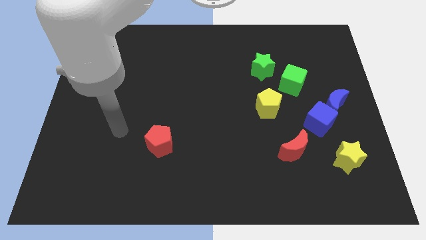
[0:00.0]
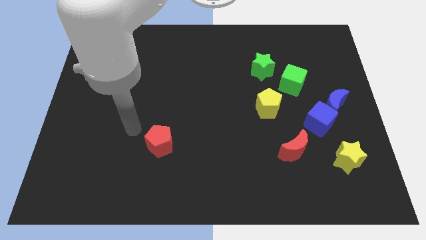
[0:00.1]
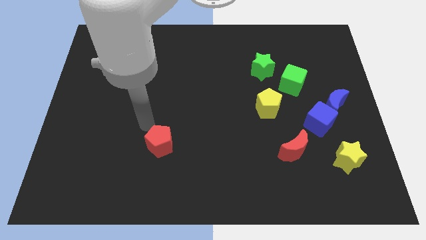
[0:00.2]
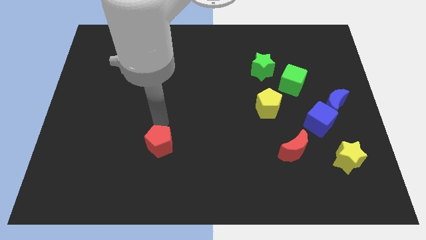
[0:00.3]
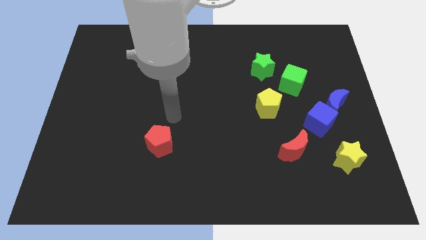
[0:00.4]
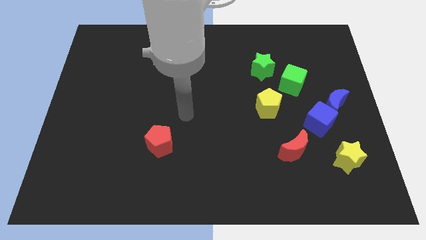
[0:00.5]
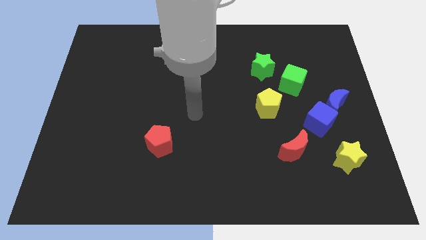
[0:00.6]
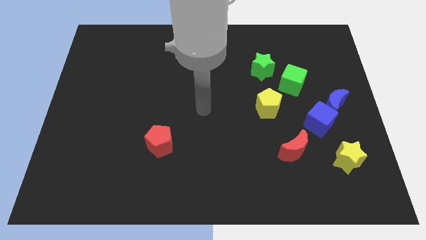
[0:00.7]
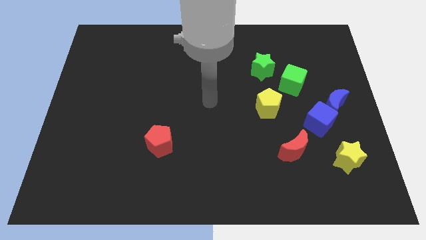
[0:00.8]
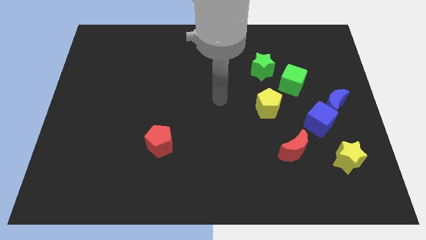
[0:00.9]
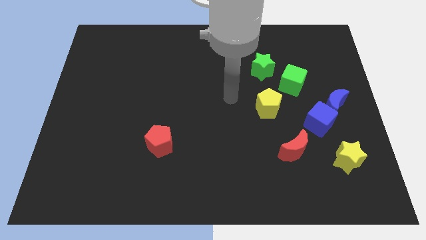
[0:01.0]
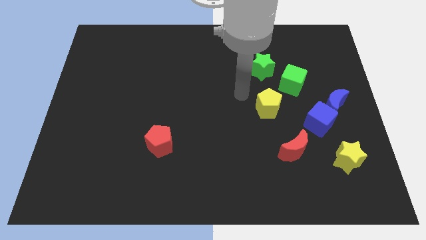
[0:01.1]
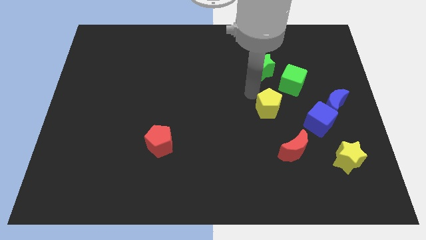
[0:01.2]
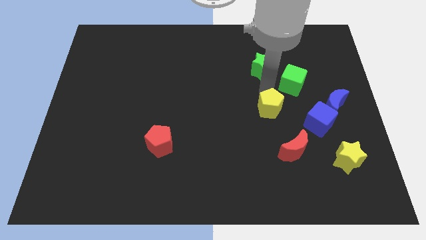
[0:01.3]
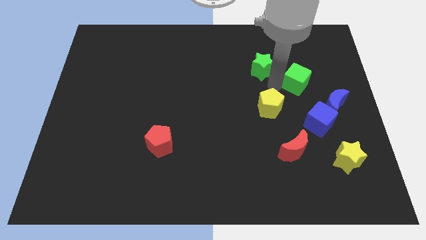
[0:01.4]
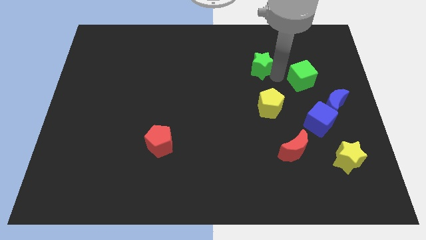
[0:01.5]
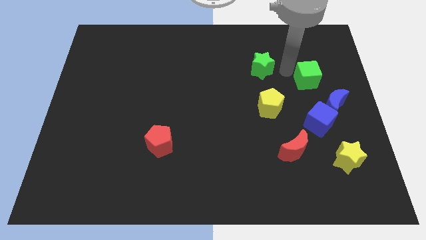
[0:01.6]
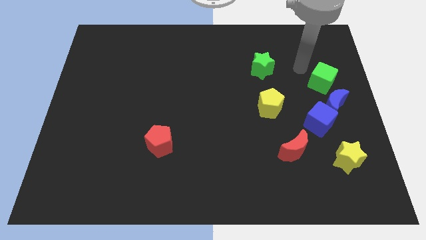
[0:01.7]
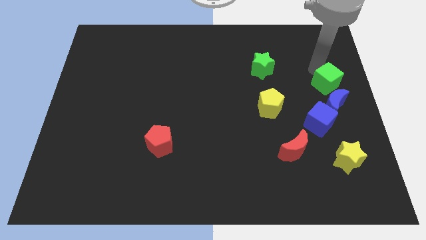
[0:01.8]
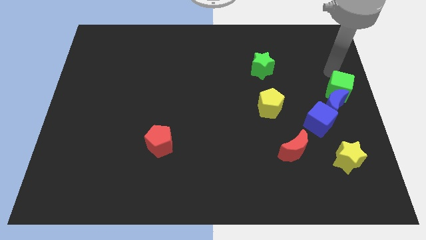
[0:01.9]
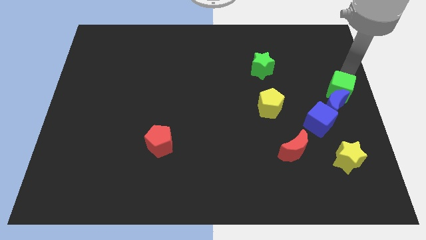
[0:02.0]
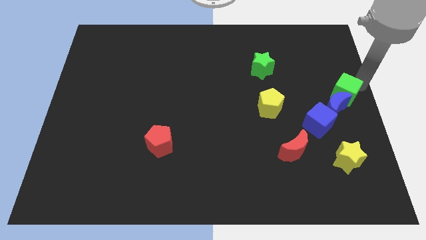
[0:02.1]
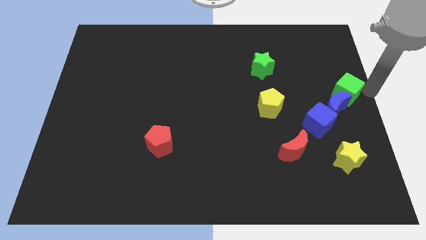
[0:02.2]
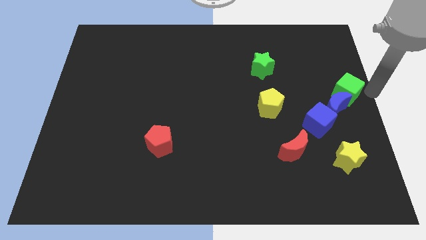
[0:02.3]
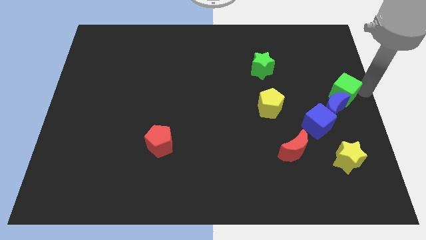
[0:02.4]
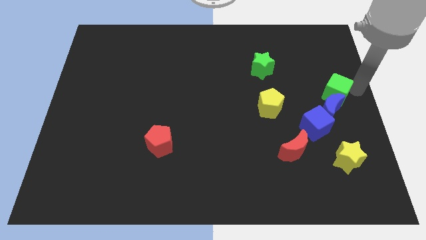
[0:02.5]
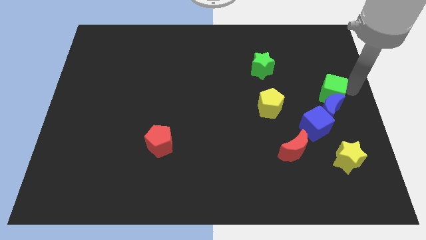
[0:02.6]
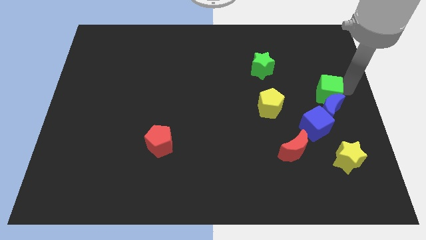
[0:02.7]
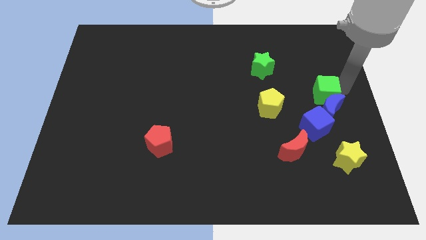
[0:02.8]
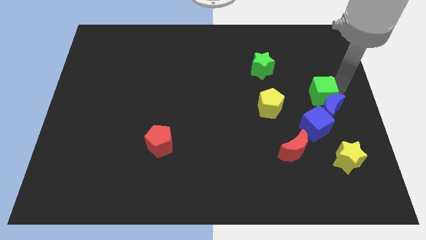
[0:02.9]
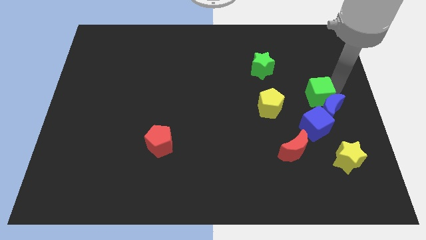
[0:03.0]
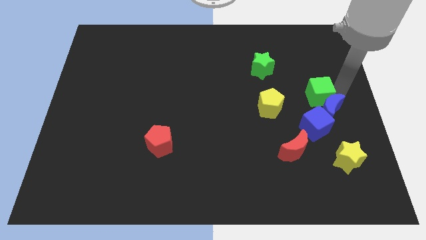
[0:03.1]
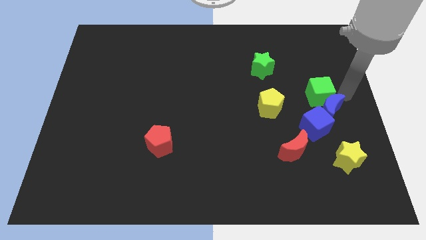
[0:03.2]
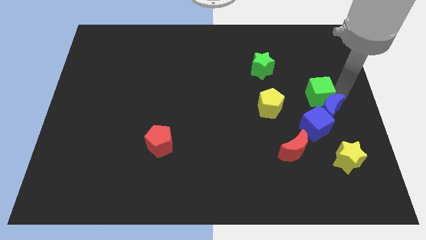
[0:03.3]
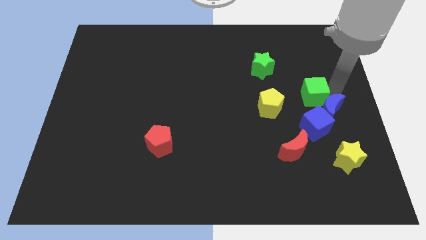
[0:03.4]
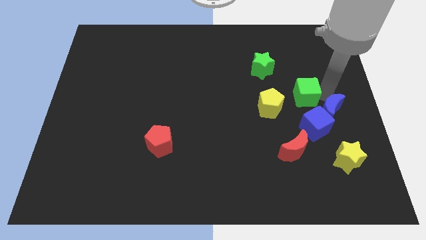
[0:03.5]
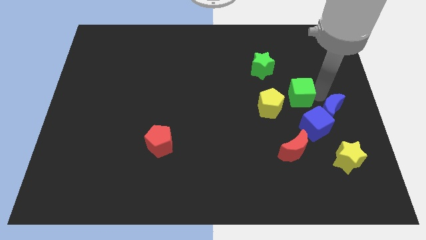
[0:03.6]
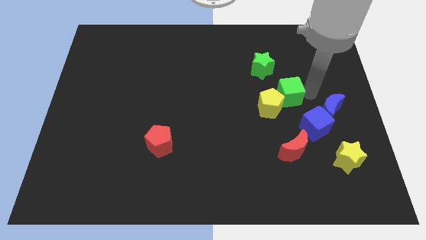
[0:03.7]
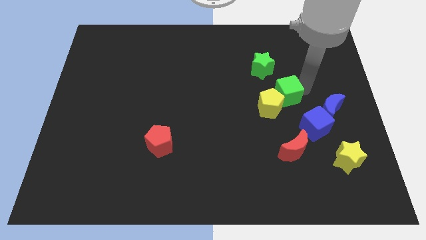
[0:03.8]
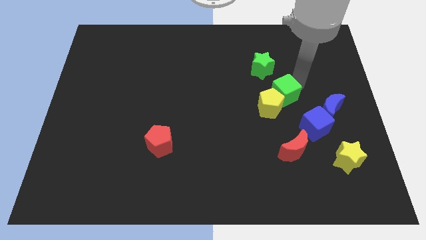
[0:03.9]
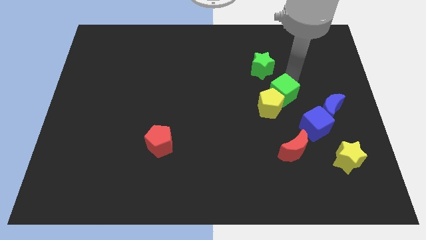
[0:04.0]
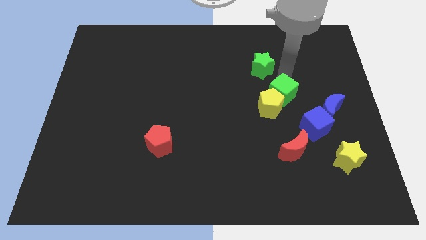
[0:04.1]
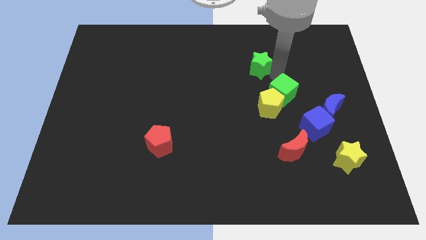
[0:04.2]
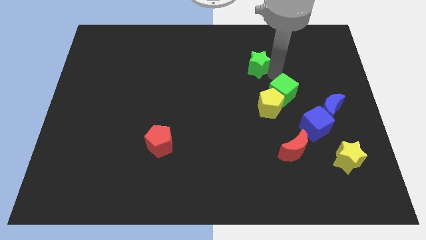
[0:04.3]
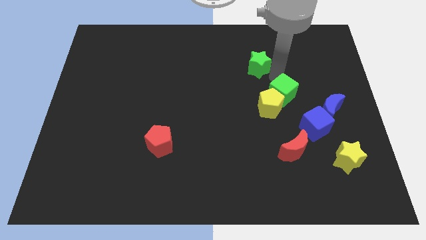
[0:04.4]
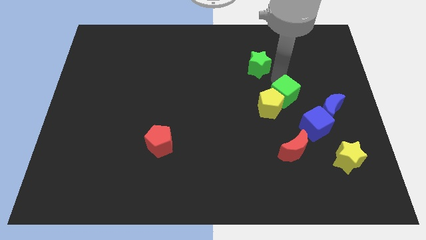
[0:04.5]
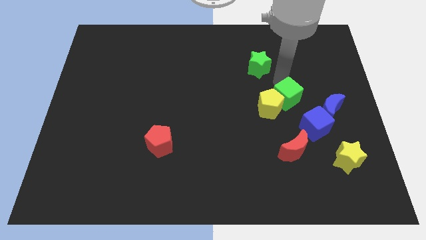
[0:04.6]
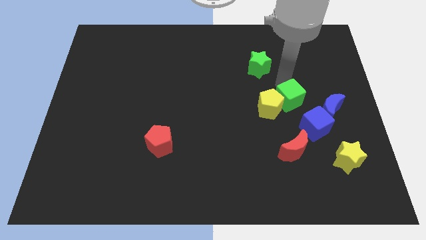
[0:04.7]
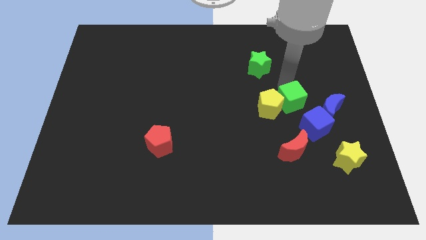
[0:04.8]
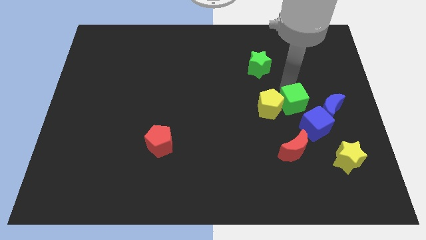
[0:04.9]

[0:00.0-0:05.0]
push the green cube to the bottom right side of the yellow pentagon

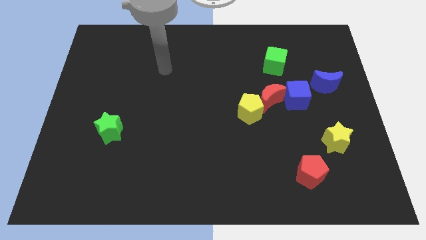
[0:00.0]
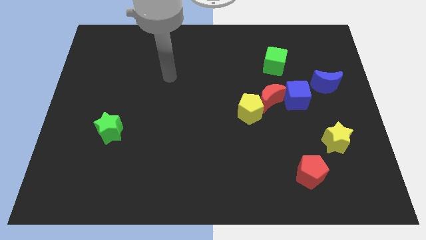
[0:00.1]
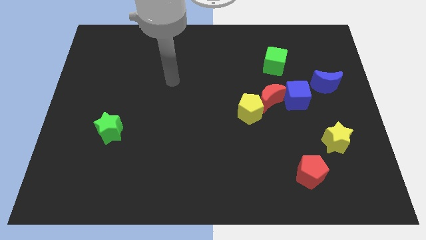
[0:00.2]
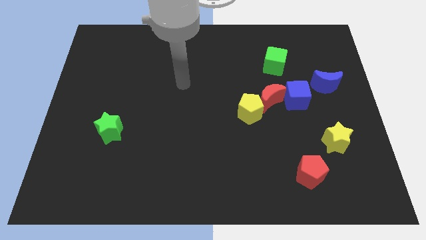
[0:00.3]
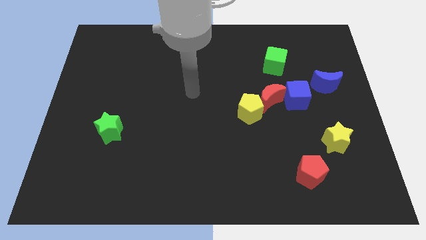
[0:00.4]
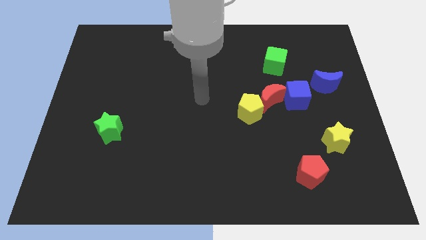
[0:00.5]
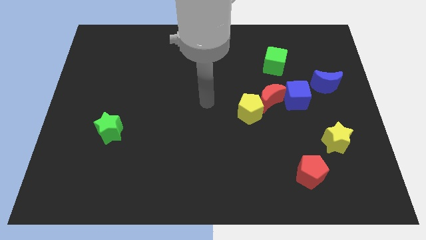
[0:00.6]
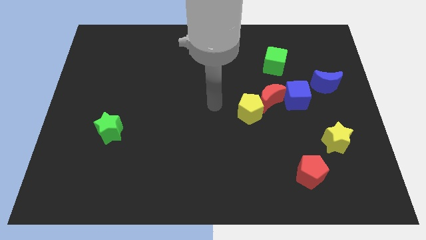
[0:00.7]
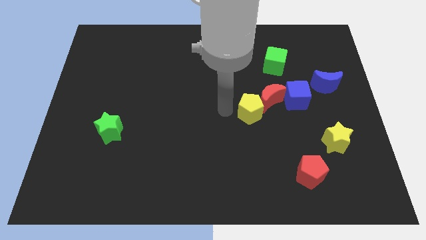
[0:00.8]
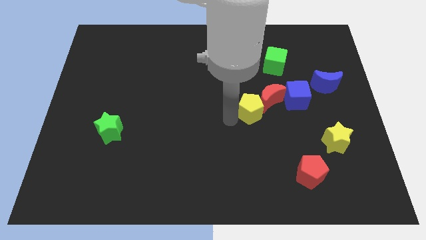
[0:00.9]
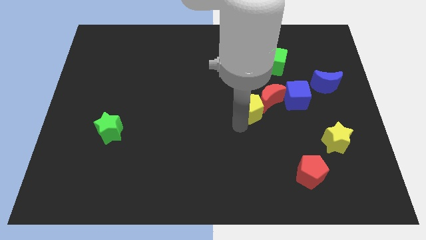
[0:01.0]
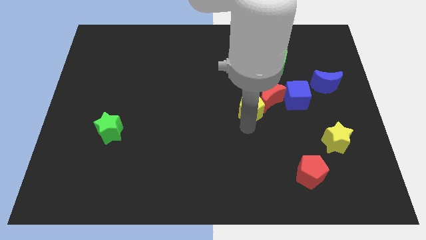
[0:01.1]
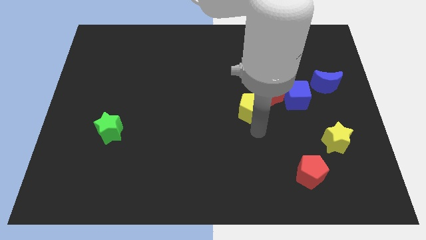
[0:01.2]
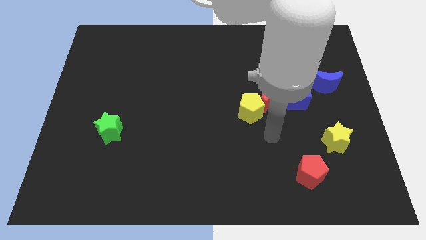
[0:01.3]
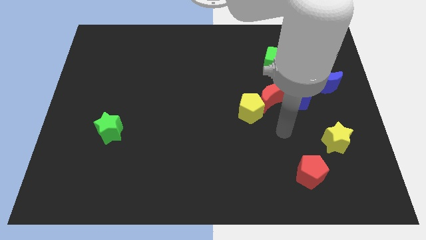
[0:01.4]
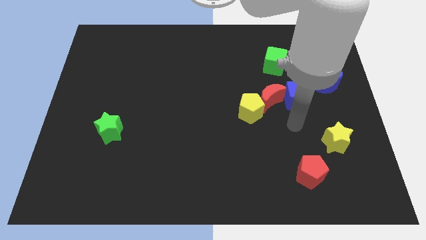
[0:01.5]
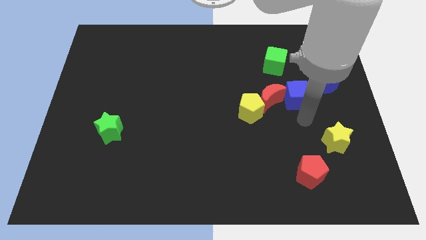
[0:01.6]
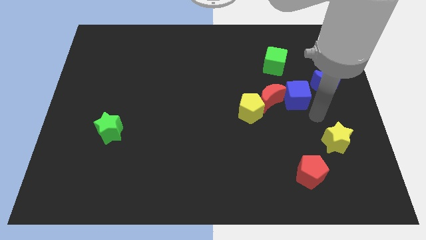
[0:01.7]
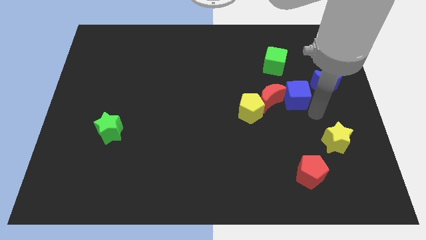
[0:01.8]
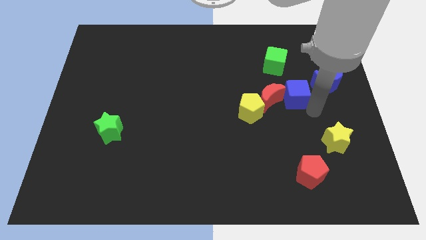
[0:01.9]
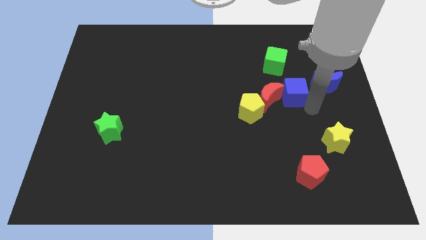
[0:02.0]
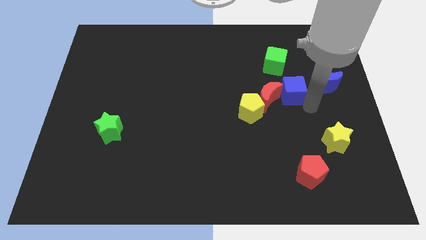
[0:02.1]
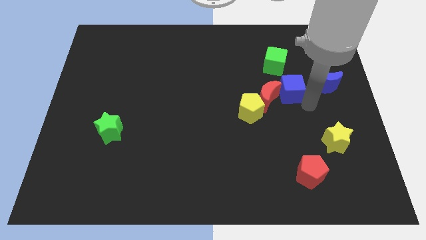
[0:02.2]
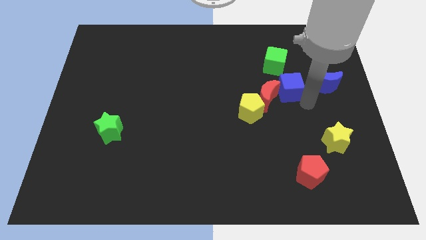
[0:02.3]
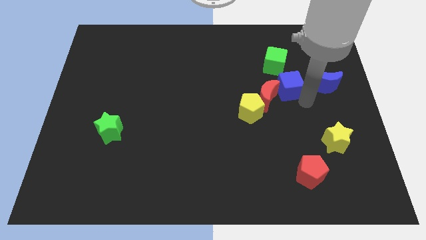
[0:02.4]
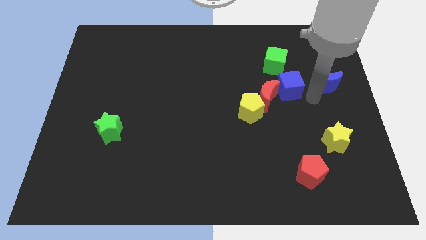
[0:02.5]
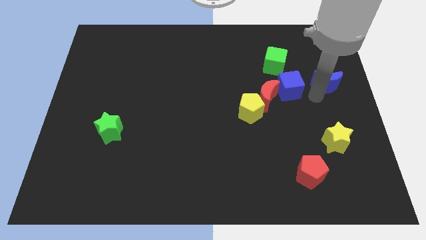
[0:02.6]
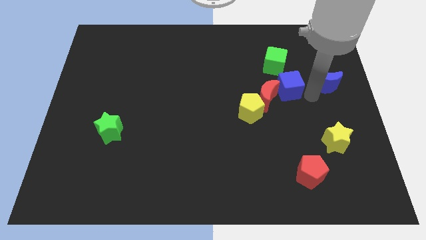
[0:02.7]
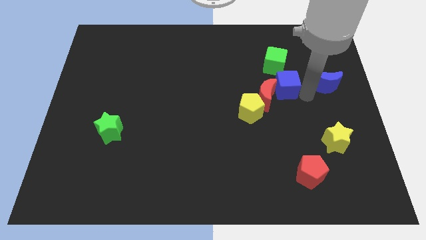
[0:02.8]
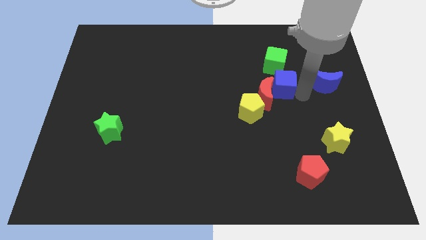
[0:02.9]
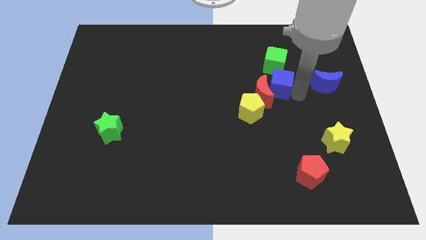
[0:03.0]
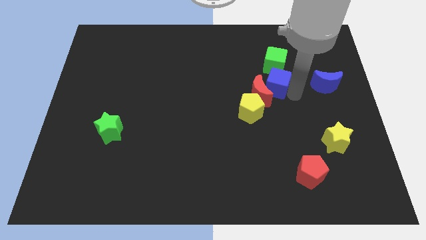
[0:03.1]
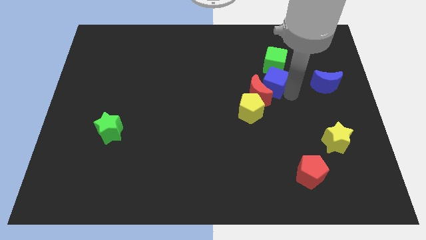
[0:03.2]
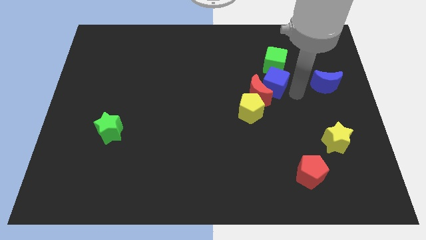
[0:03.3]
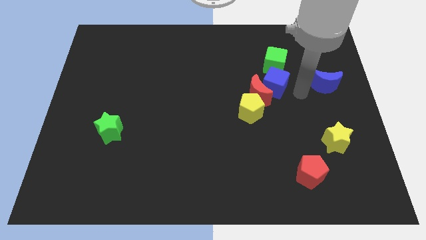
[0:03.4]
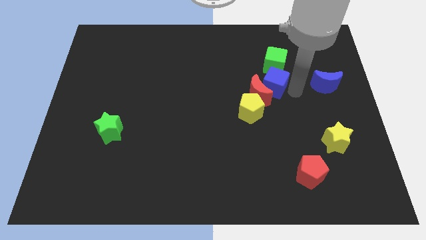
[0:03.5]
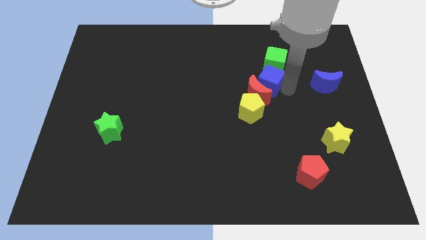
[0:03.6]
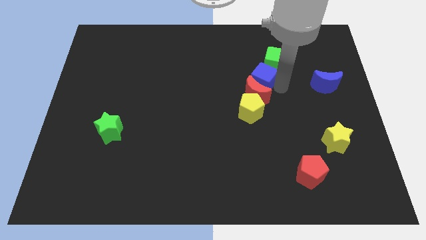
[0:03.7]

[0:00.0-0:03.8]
move the blue cube to the top of the yellow pentagon
